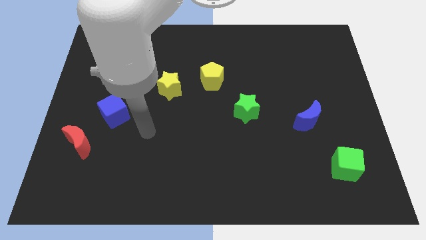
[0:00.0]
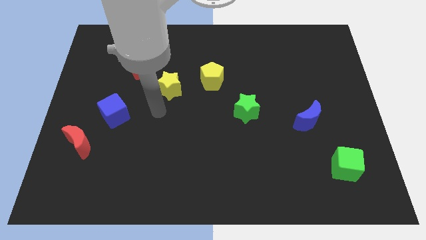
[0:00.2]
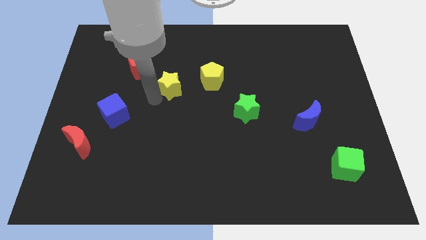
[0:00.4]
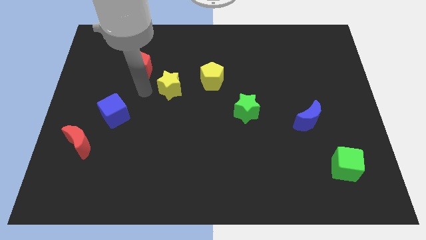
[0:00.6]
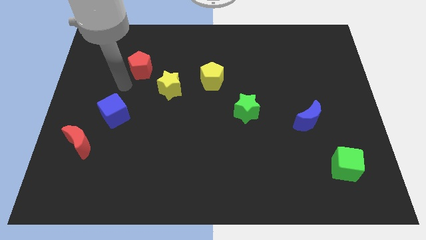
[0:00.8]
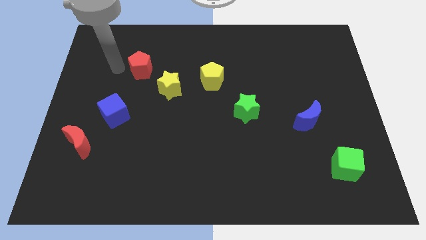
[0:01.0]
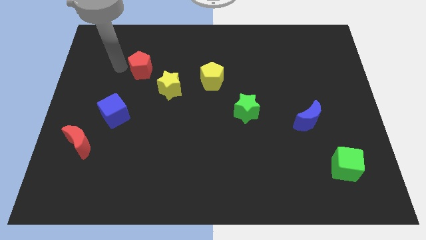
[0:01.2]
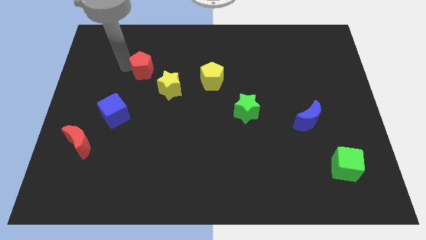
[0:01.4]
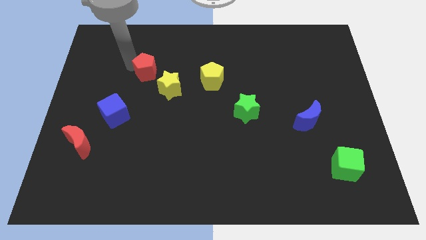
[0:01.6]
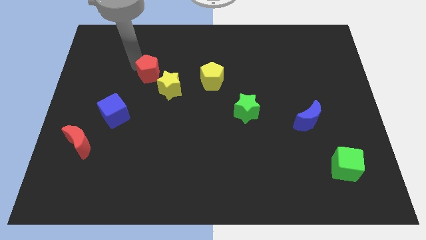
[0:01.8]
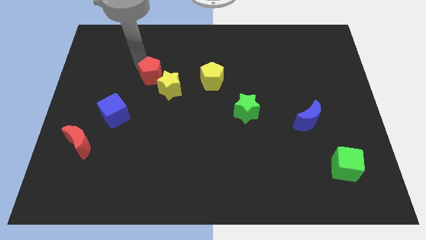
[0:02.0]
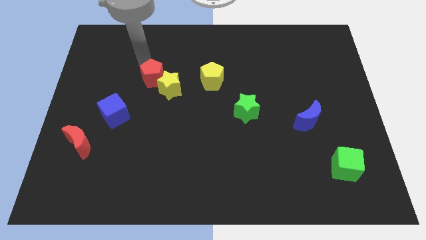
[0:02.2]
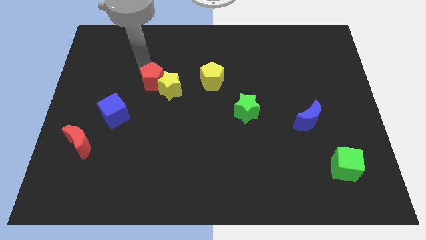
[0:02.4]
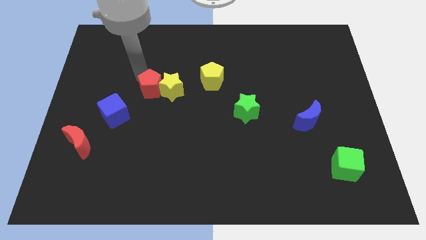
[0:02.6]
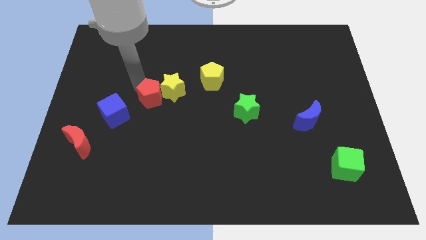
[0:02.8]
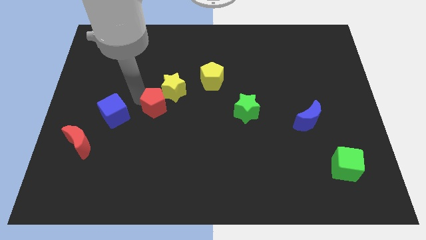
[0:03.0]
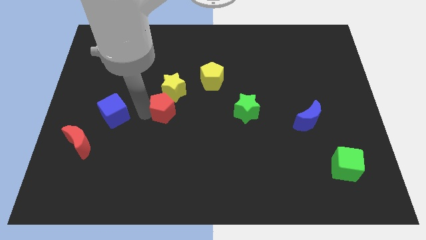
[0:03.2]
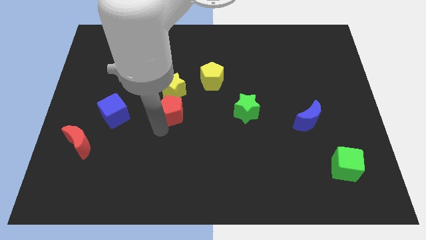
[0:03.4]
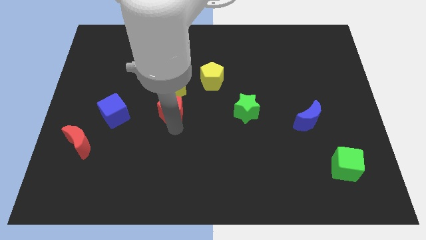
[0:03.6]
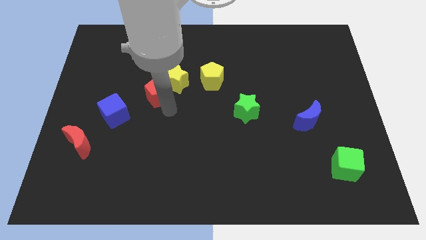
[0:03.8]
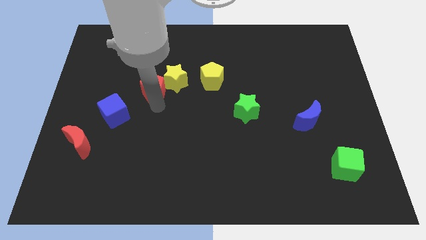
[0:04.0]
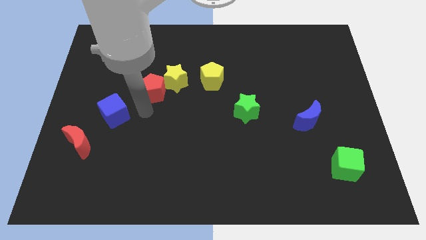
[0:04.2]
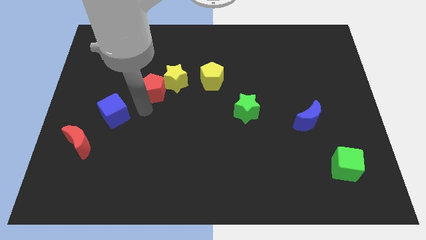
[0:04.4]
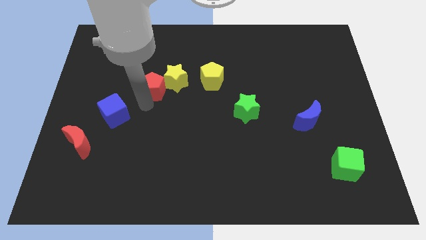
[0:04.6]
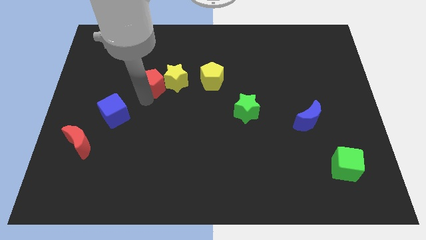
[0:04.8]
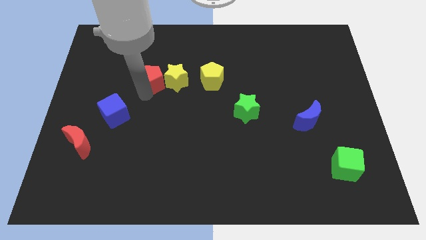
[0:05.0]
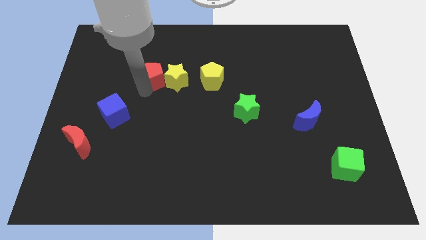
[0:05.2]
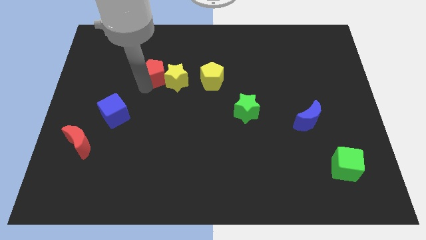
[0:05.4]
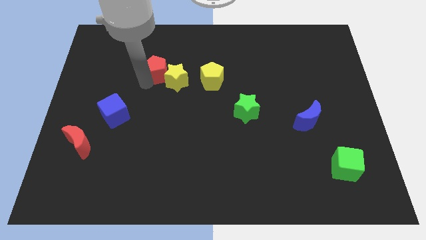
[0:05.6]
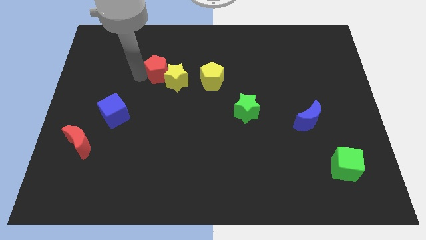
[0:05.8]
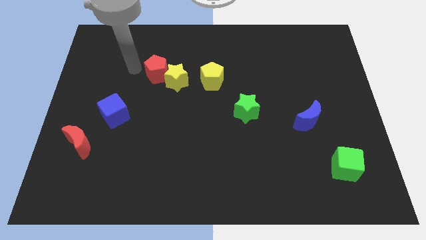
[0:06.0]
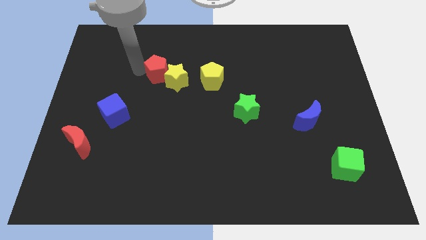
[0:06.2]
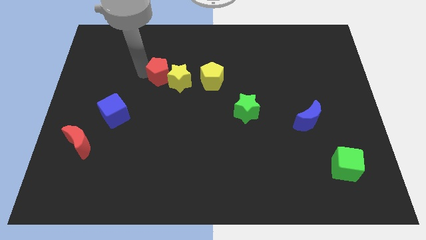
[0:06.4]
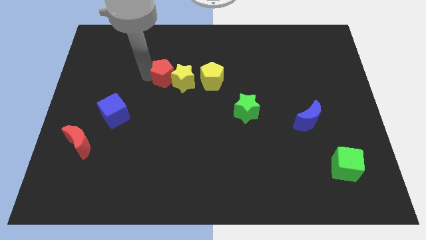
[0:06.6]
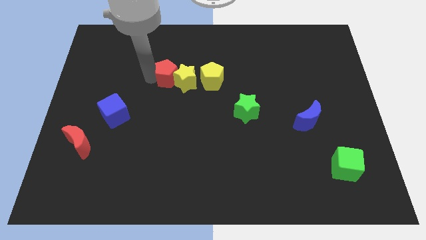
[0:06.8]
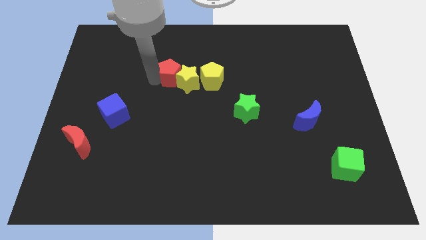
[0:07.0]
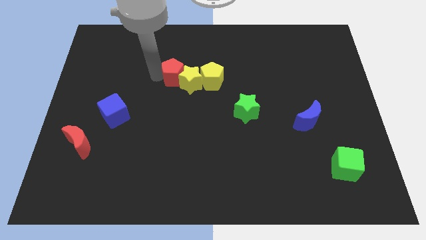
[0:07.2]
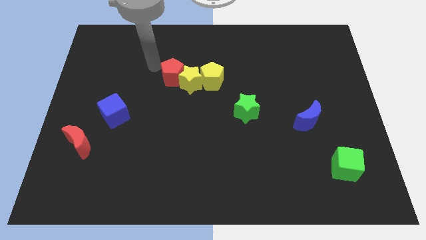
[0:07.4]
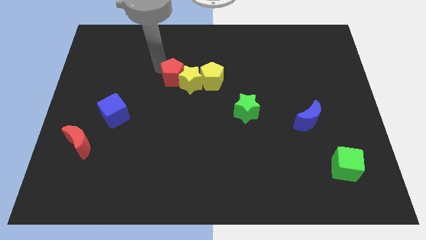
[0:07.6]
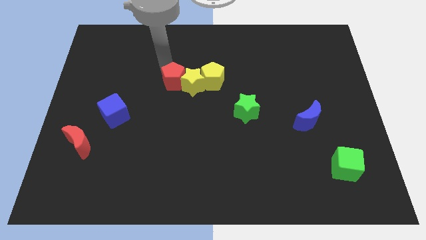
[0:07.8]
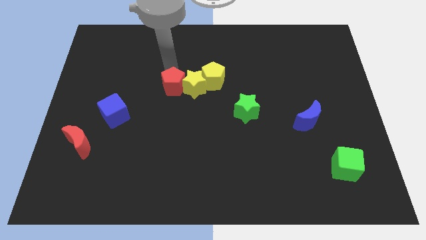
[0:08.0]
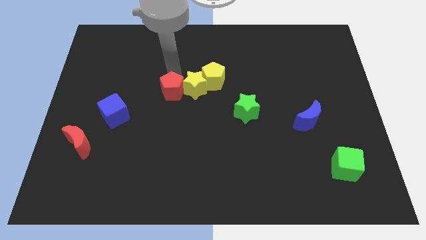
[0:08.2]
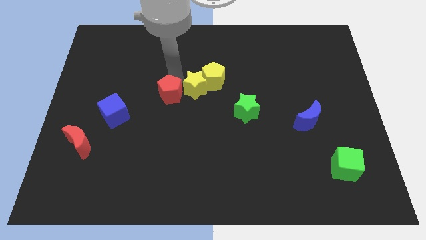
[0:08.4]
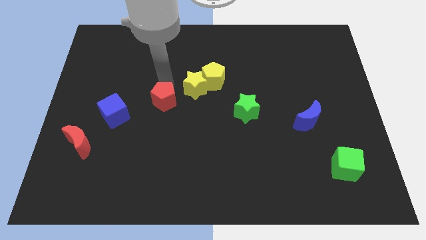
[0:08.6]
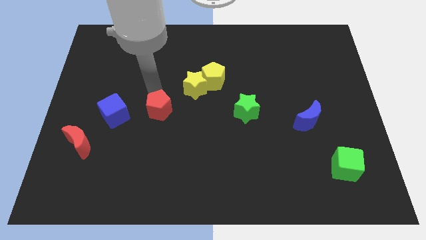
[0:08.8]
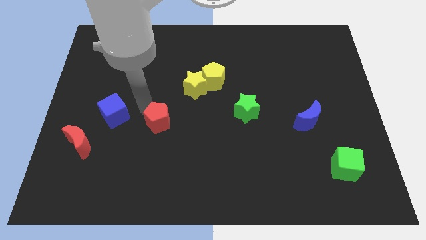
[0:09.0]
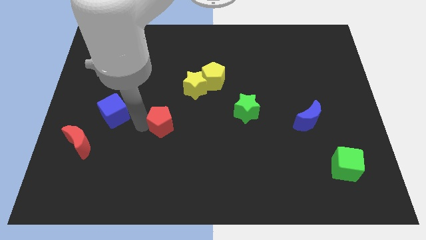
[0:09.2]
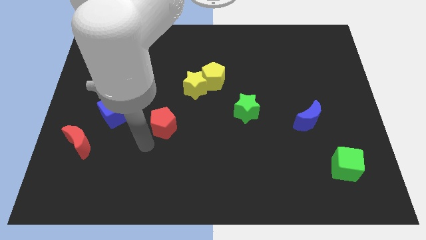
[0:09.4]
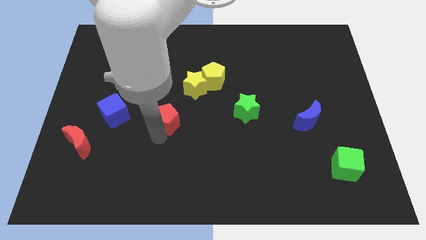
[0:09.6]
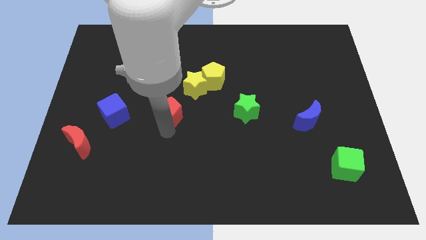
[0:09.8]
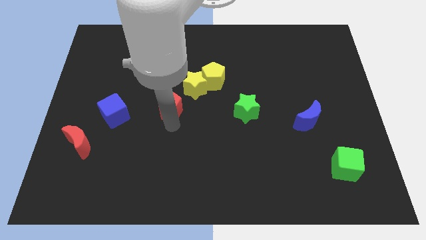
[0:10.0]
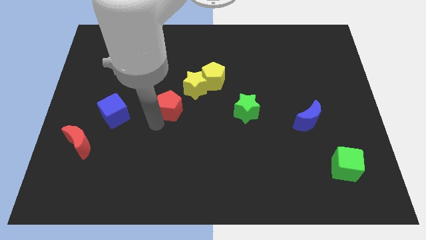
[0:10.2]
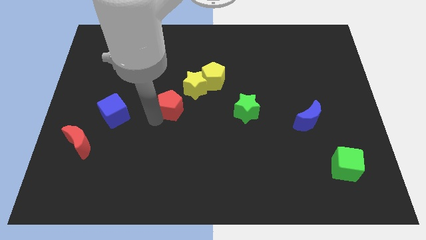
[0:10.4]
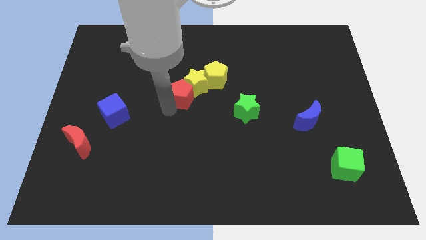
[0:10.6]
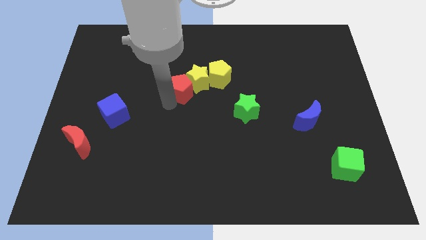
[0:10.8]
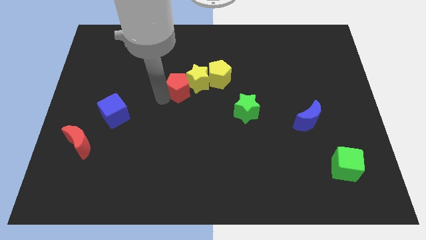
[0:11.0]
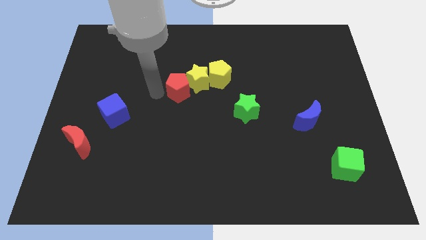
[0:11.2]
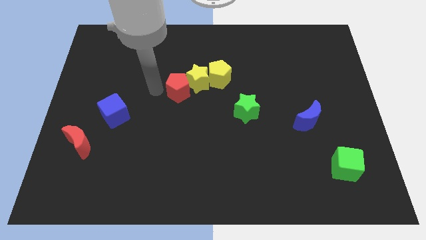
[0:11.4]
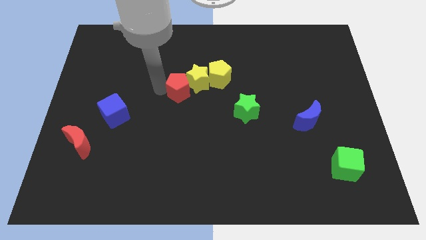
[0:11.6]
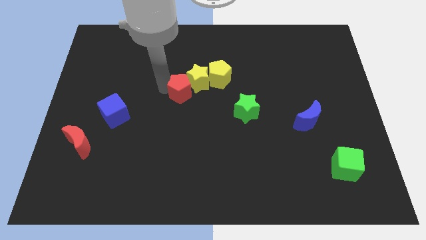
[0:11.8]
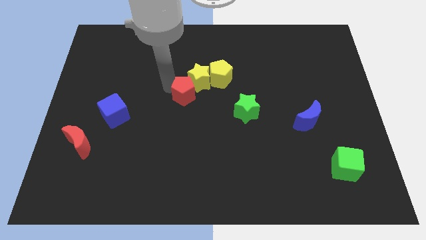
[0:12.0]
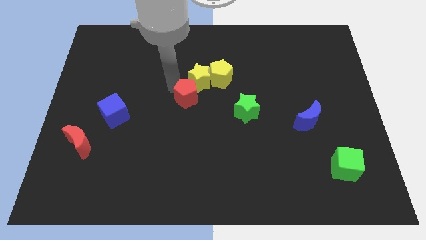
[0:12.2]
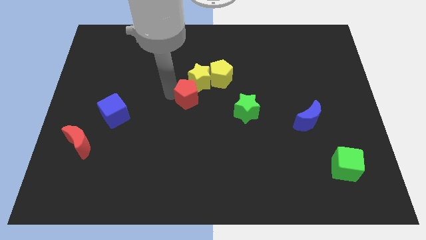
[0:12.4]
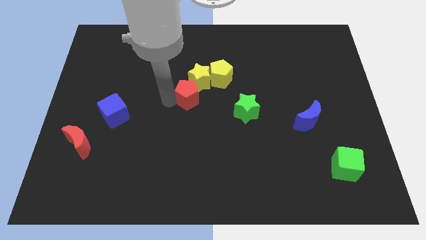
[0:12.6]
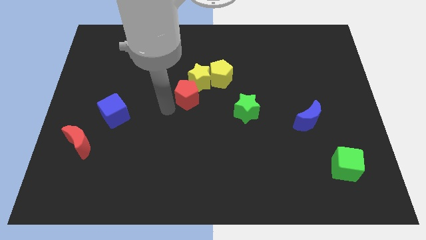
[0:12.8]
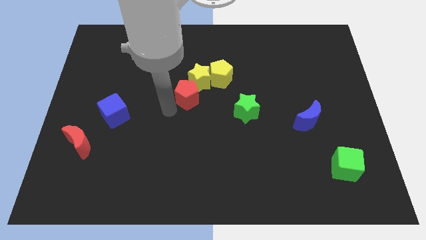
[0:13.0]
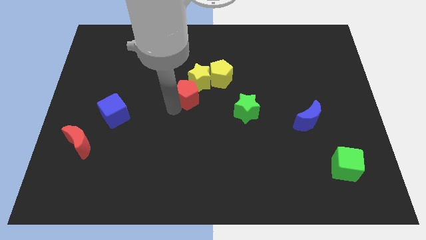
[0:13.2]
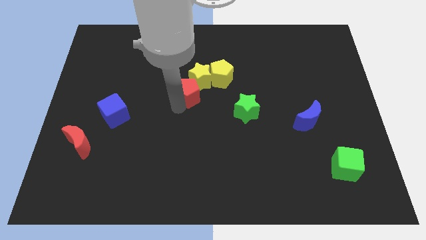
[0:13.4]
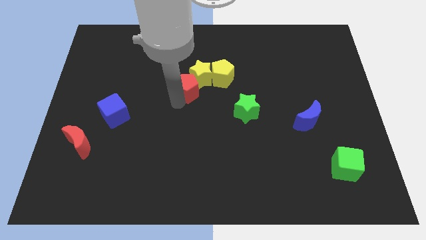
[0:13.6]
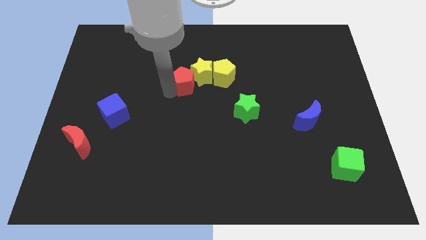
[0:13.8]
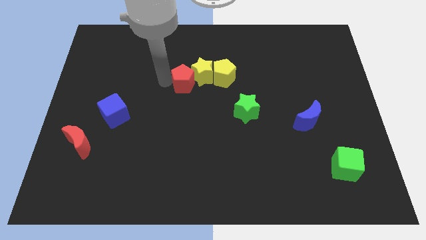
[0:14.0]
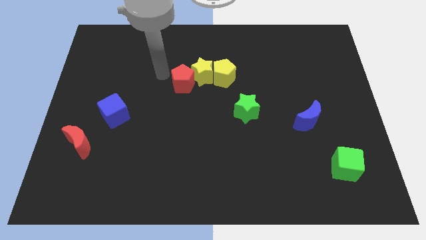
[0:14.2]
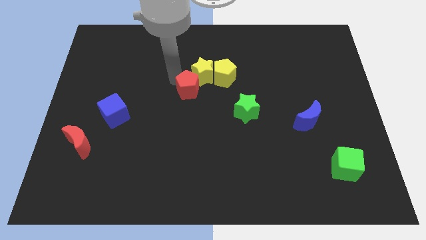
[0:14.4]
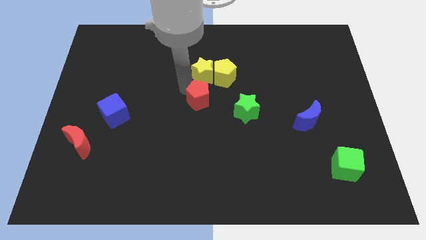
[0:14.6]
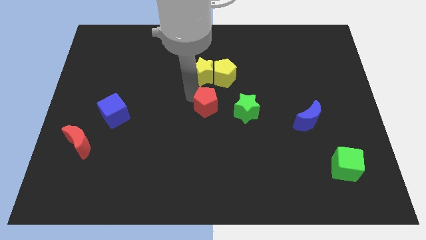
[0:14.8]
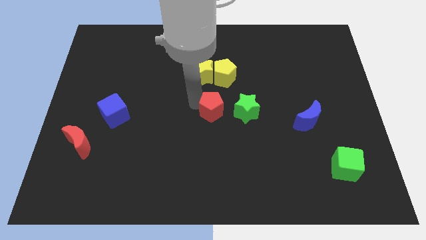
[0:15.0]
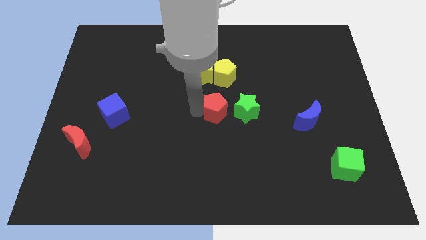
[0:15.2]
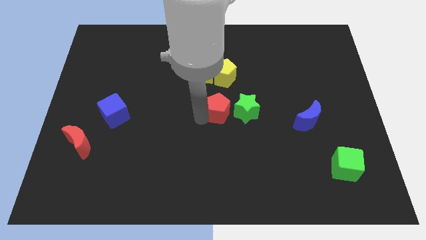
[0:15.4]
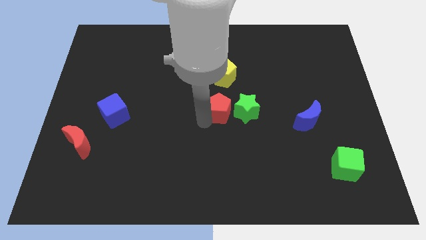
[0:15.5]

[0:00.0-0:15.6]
move the red pentagon next to the green star

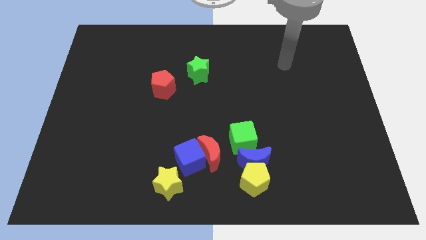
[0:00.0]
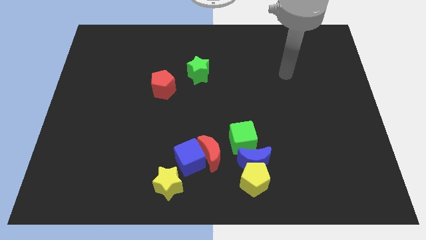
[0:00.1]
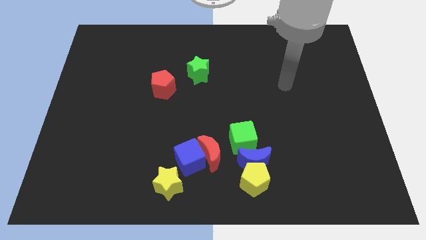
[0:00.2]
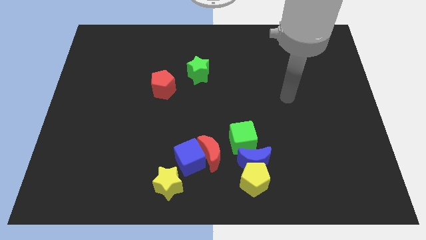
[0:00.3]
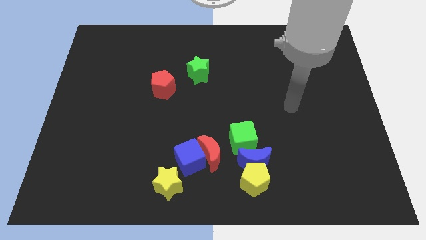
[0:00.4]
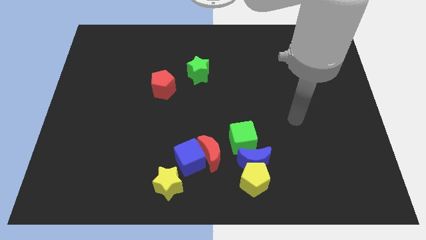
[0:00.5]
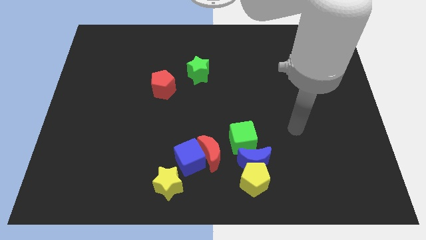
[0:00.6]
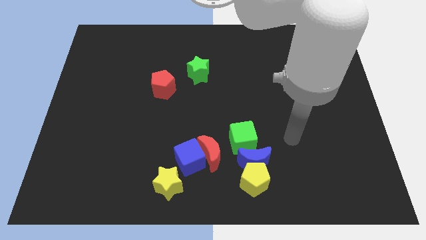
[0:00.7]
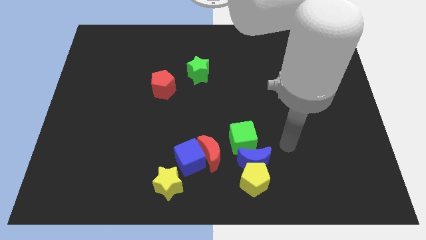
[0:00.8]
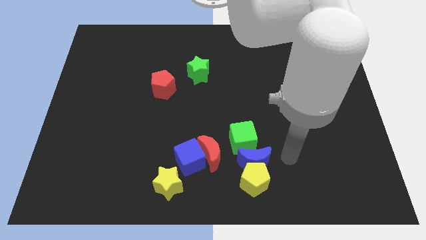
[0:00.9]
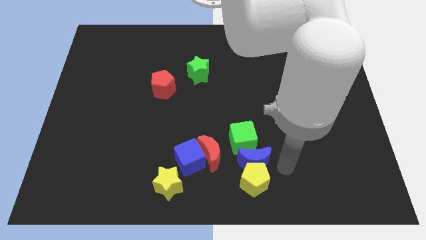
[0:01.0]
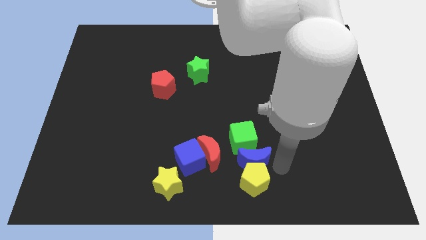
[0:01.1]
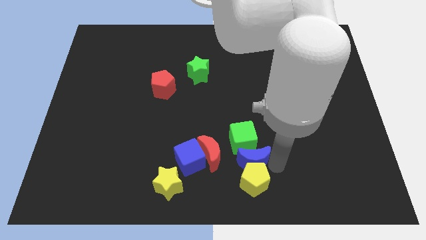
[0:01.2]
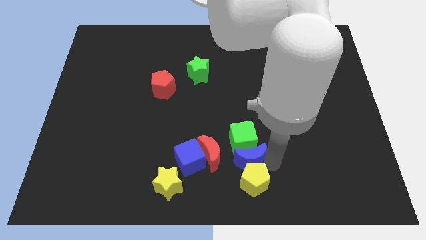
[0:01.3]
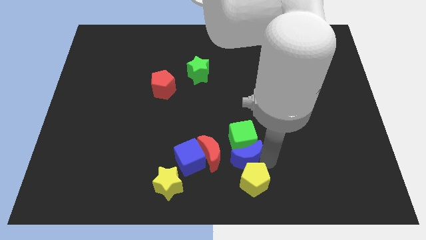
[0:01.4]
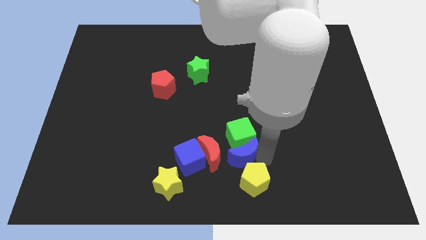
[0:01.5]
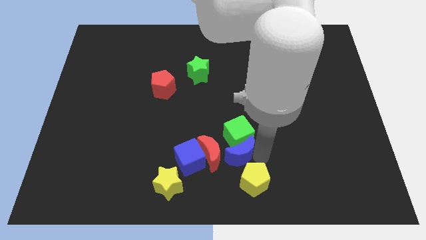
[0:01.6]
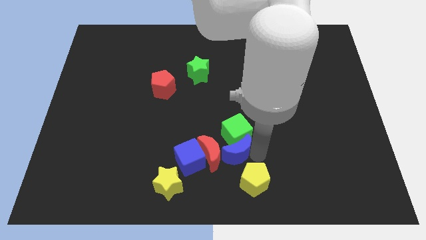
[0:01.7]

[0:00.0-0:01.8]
slide the blue moon to the red moon
